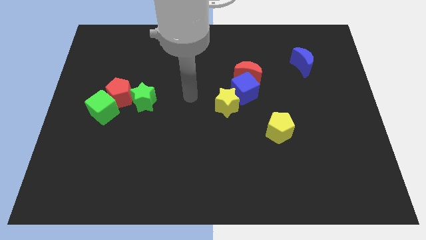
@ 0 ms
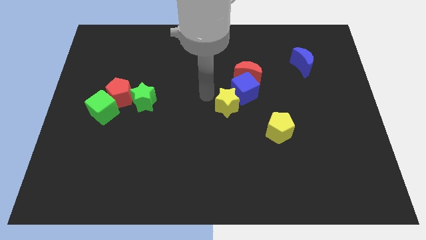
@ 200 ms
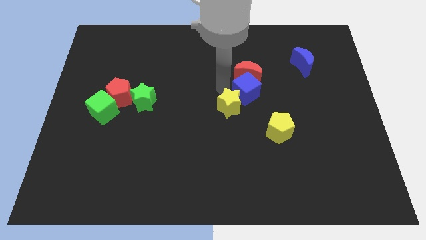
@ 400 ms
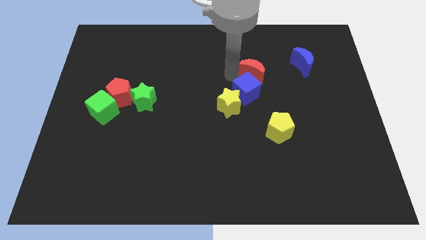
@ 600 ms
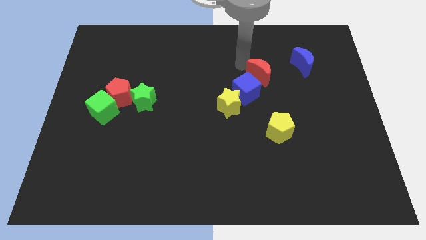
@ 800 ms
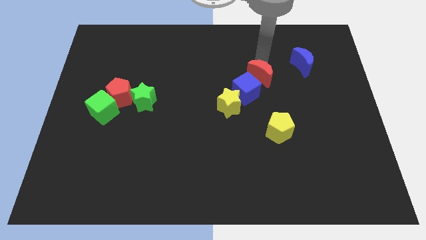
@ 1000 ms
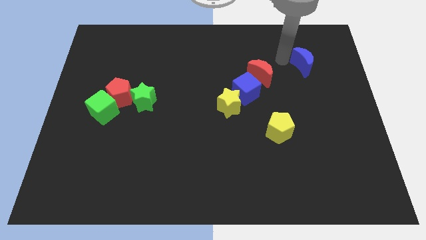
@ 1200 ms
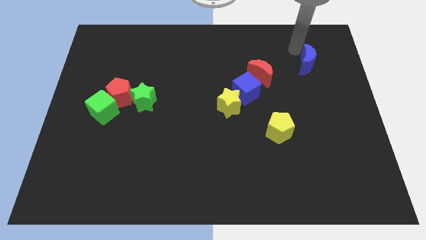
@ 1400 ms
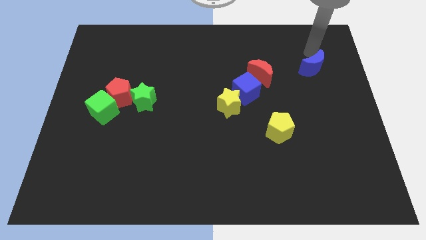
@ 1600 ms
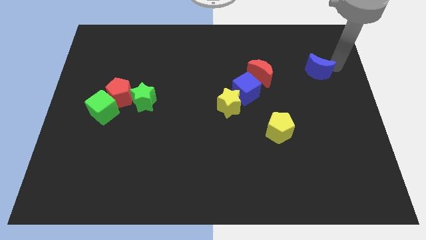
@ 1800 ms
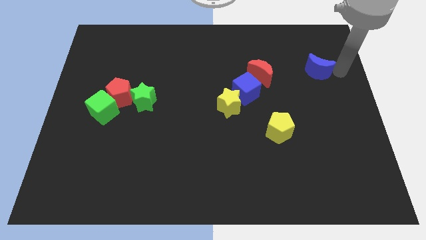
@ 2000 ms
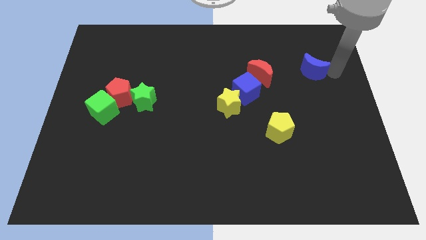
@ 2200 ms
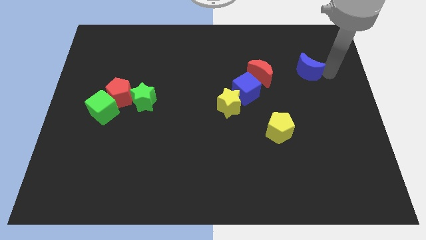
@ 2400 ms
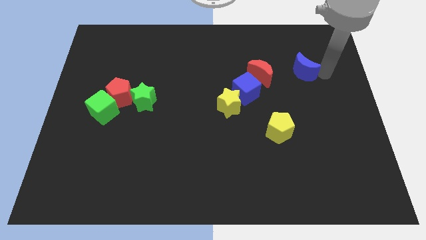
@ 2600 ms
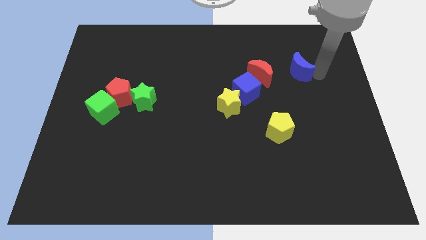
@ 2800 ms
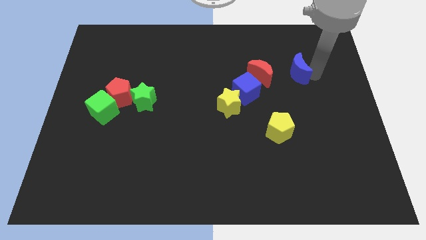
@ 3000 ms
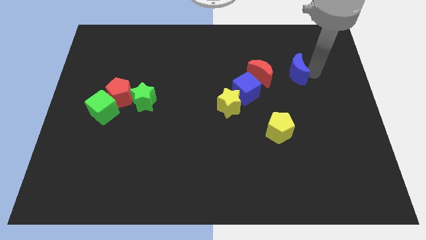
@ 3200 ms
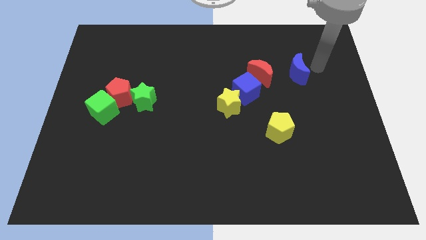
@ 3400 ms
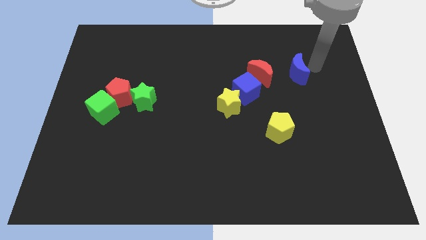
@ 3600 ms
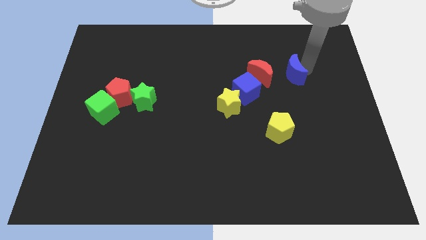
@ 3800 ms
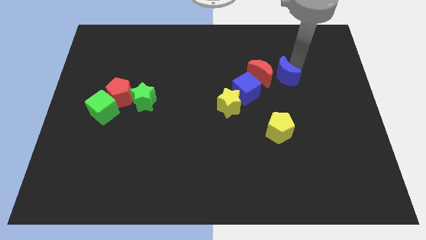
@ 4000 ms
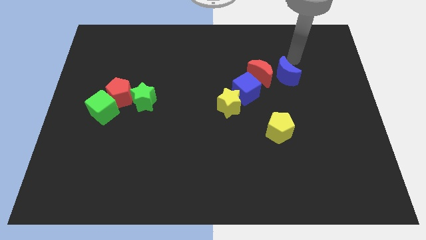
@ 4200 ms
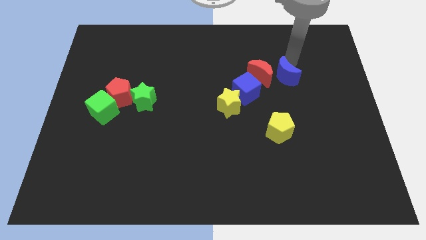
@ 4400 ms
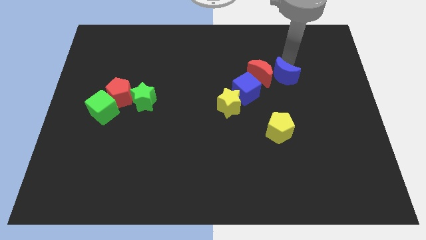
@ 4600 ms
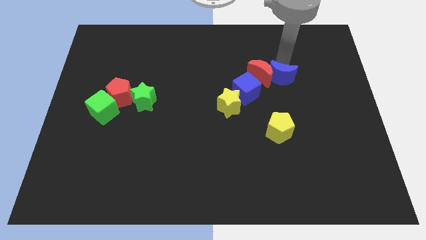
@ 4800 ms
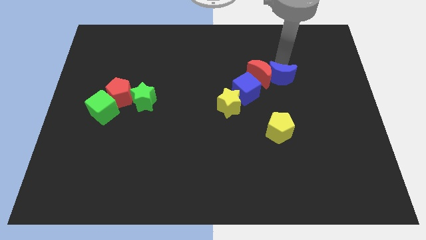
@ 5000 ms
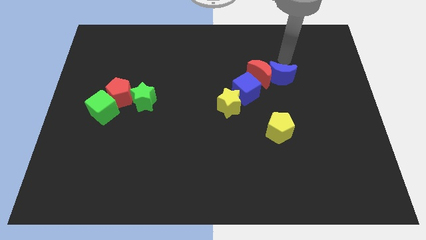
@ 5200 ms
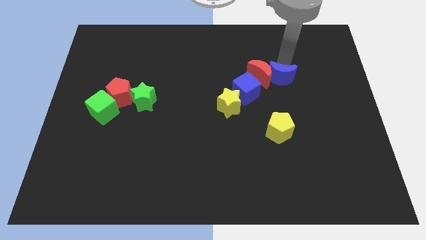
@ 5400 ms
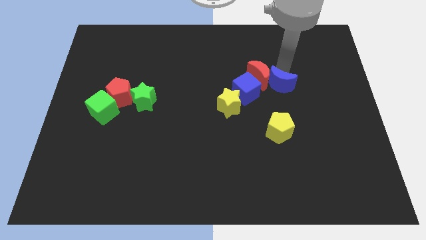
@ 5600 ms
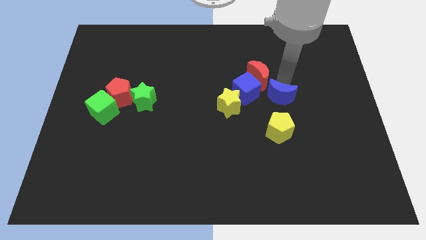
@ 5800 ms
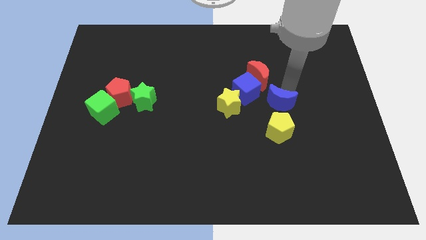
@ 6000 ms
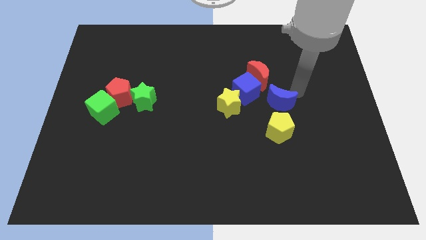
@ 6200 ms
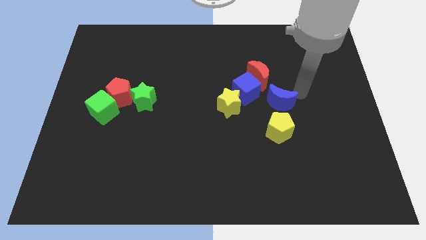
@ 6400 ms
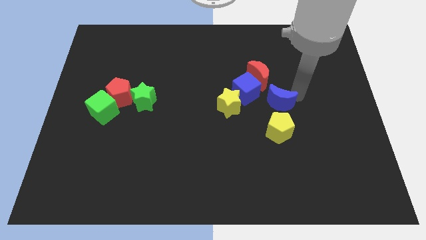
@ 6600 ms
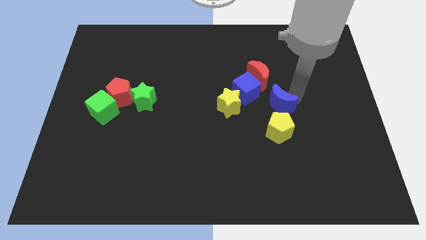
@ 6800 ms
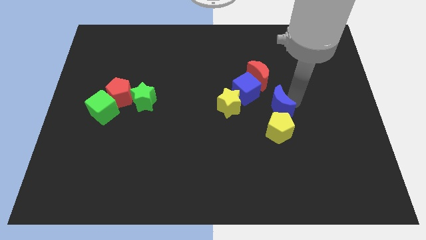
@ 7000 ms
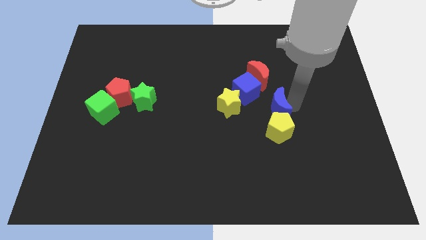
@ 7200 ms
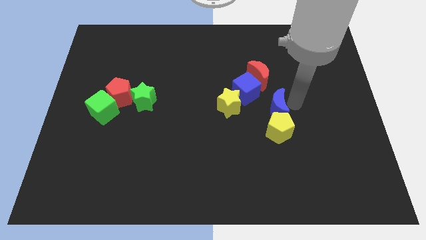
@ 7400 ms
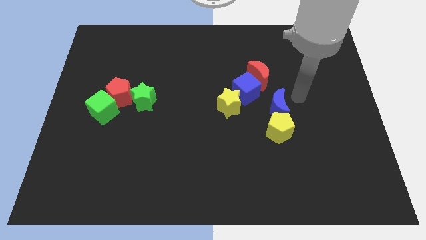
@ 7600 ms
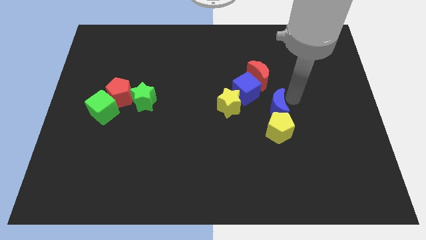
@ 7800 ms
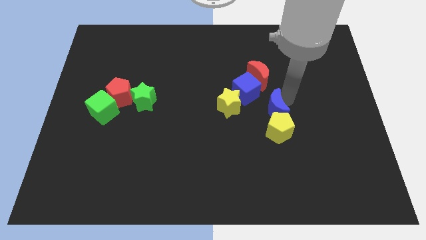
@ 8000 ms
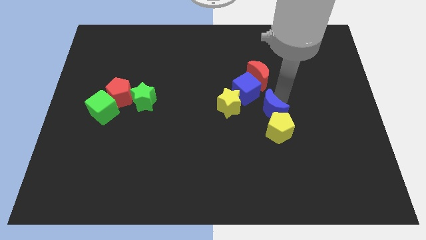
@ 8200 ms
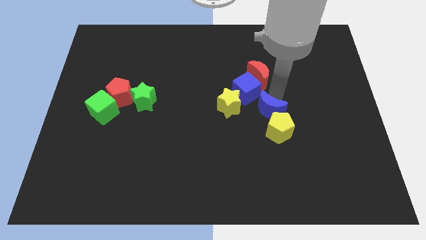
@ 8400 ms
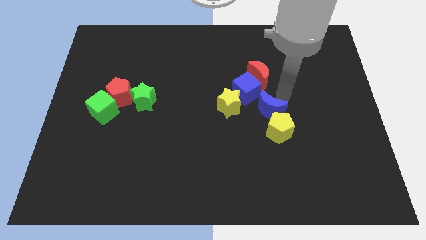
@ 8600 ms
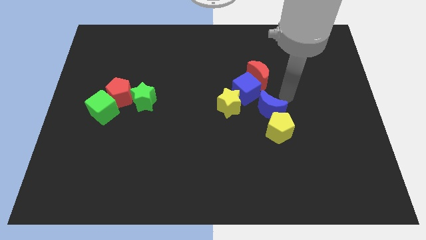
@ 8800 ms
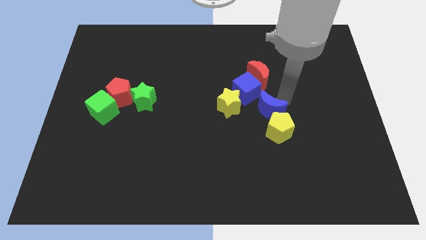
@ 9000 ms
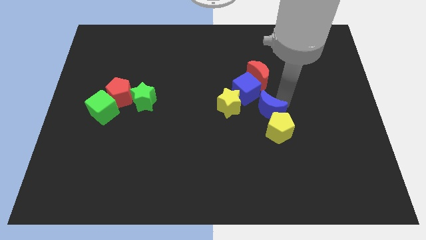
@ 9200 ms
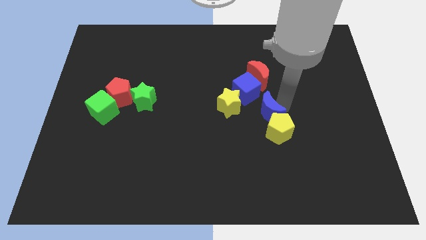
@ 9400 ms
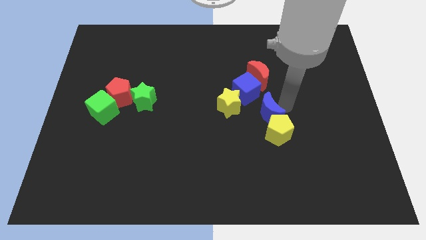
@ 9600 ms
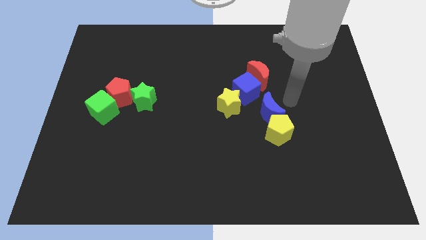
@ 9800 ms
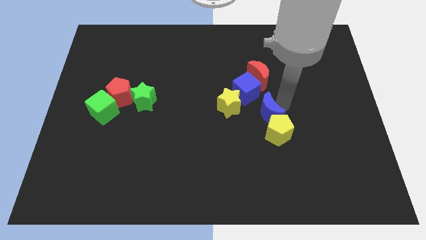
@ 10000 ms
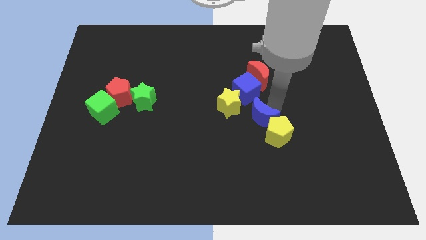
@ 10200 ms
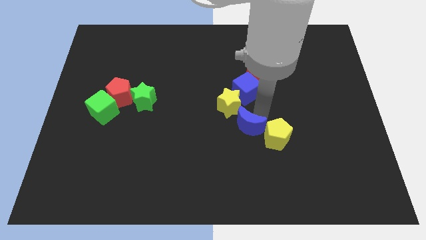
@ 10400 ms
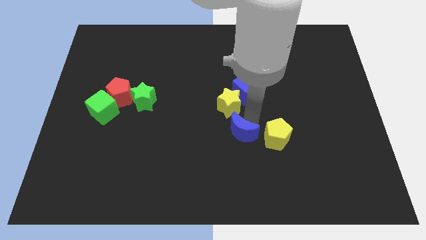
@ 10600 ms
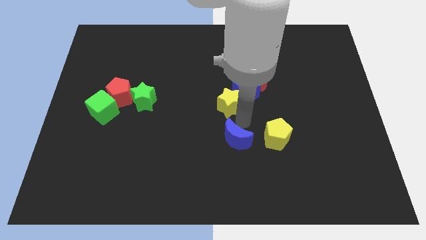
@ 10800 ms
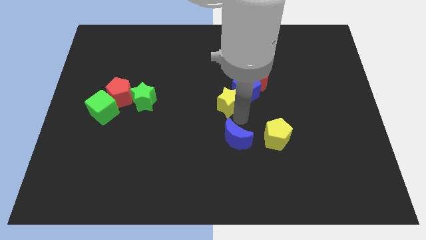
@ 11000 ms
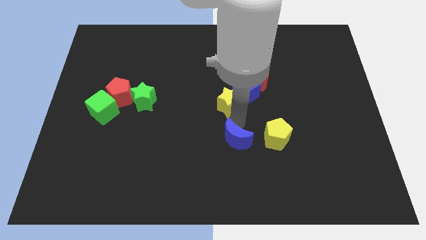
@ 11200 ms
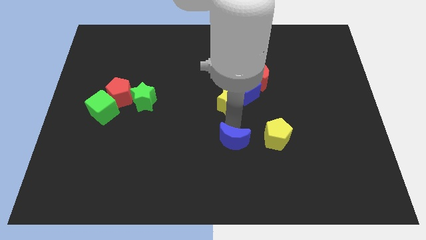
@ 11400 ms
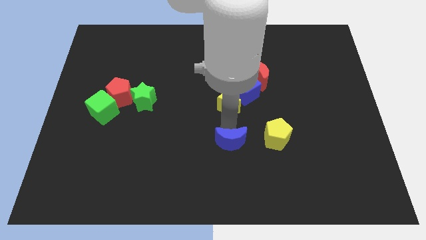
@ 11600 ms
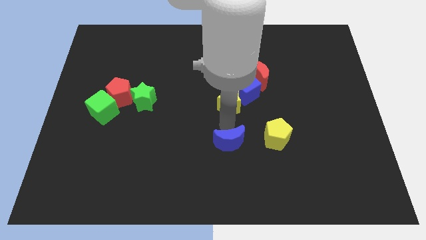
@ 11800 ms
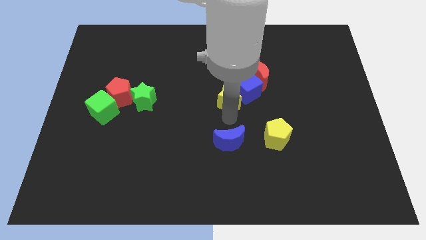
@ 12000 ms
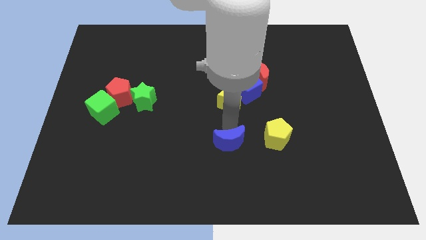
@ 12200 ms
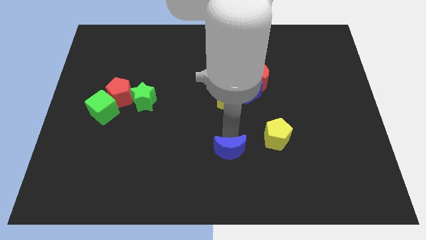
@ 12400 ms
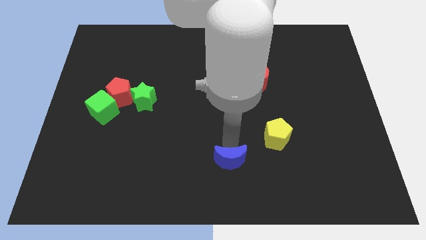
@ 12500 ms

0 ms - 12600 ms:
push the blue moon to the bottom side
